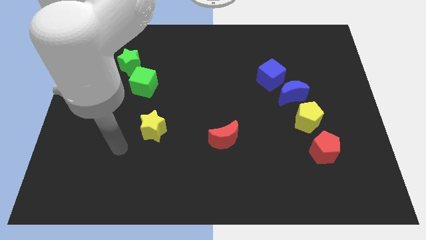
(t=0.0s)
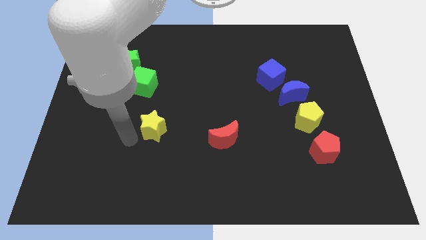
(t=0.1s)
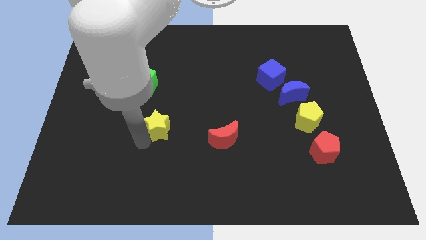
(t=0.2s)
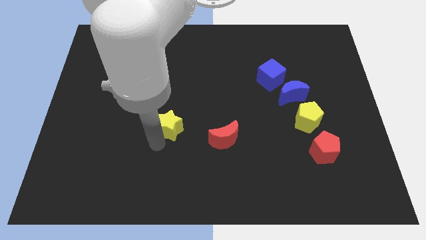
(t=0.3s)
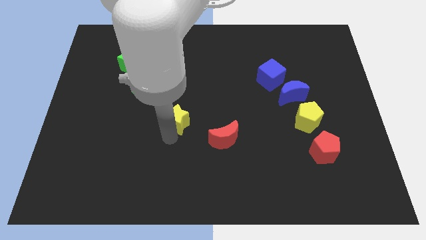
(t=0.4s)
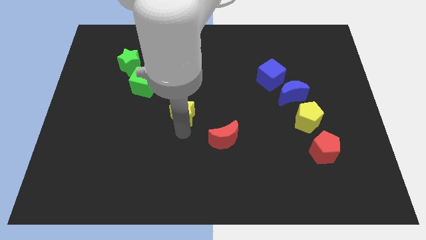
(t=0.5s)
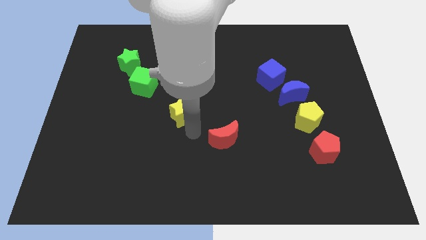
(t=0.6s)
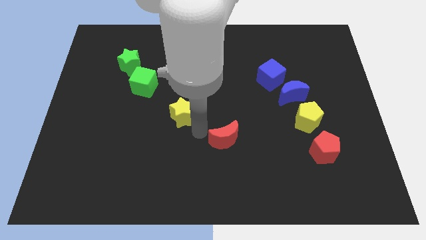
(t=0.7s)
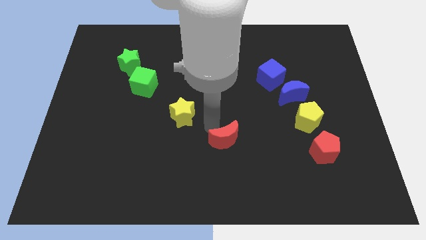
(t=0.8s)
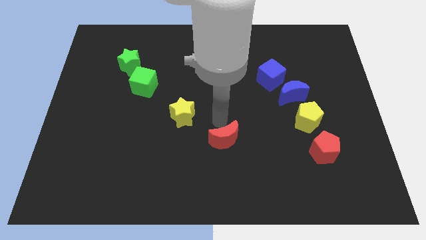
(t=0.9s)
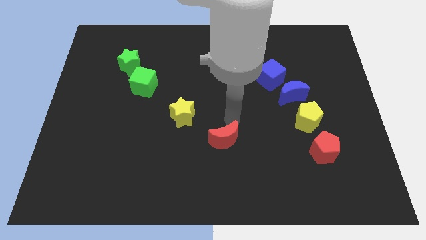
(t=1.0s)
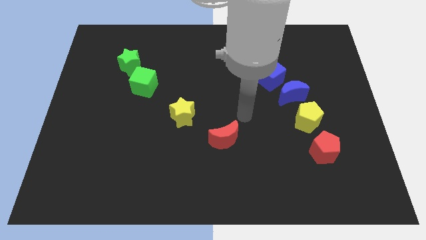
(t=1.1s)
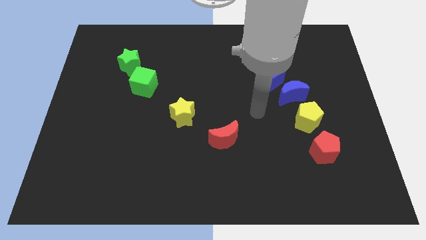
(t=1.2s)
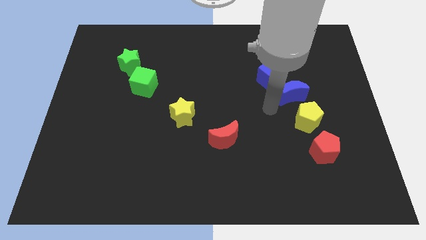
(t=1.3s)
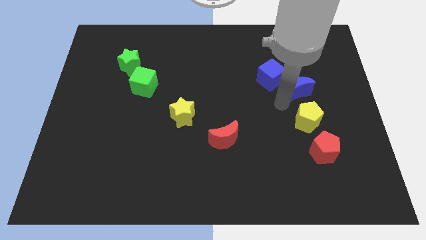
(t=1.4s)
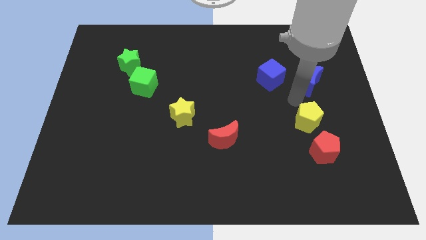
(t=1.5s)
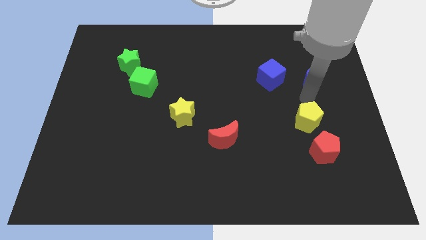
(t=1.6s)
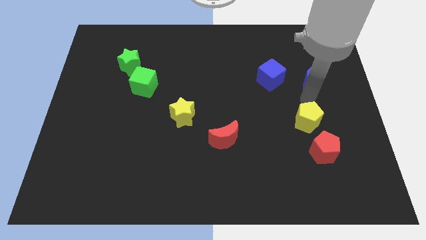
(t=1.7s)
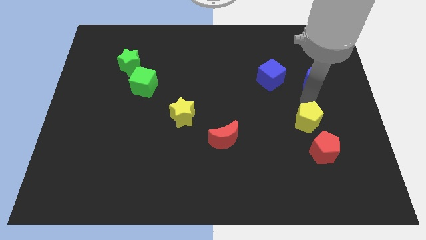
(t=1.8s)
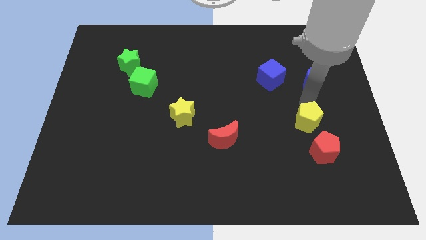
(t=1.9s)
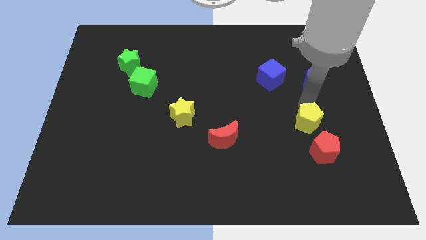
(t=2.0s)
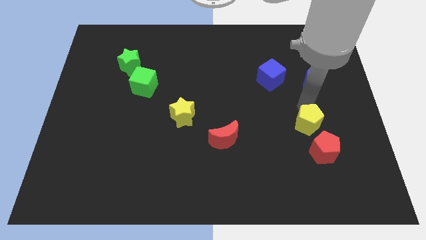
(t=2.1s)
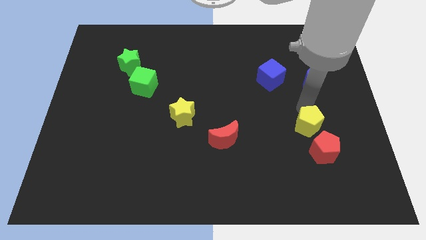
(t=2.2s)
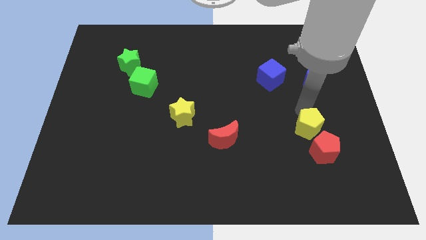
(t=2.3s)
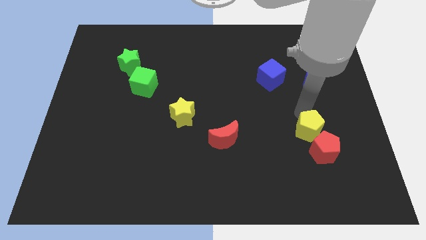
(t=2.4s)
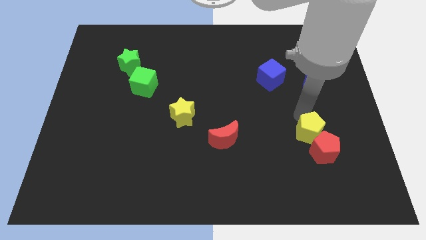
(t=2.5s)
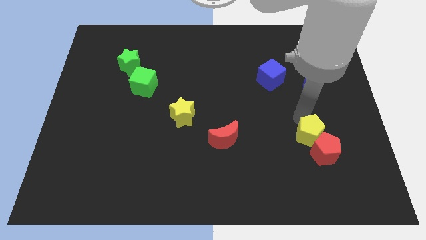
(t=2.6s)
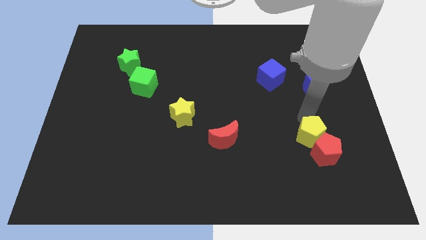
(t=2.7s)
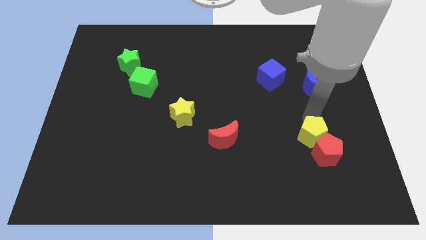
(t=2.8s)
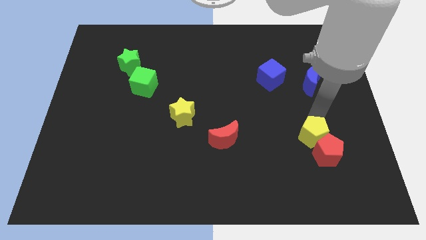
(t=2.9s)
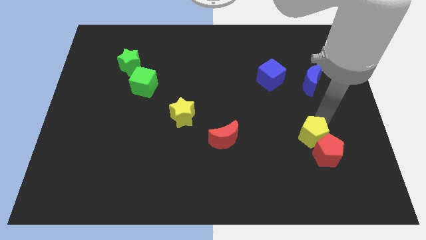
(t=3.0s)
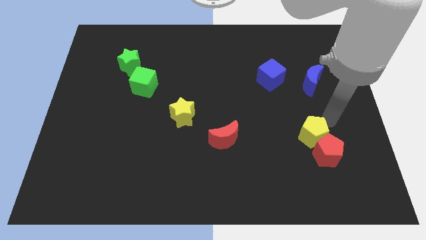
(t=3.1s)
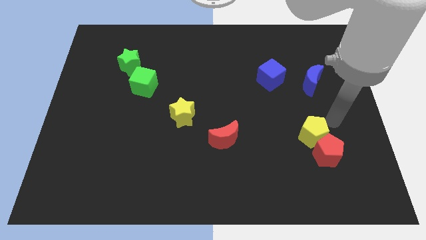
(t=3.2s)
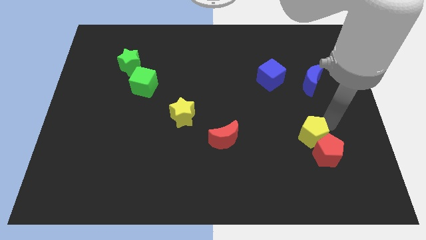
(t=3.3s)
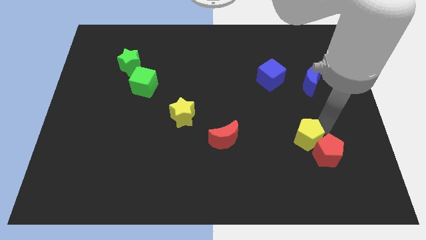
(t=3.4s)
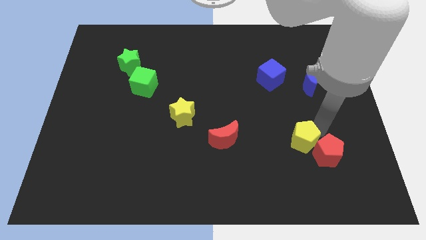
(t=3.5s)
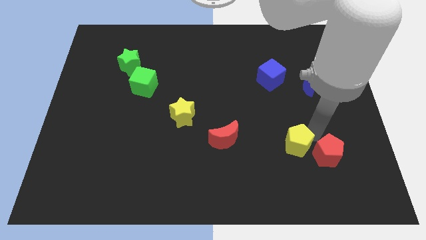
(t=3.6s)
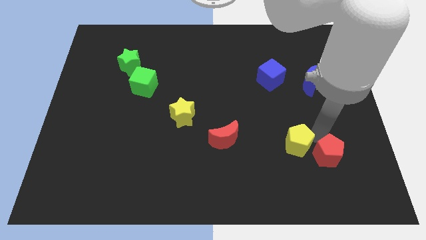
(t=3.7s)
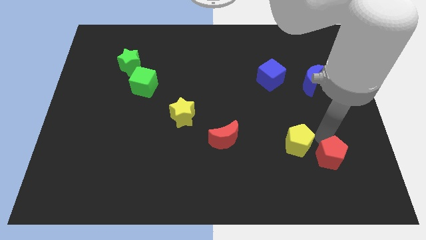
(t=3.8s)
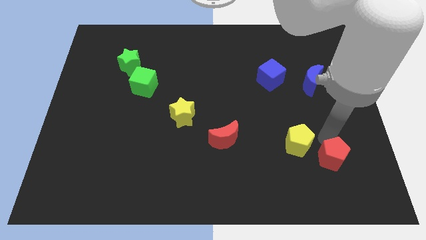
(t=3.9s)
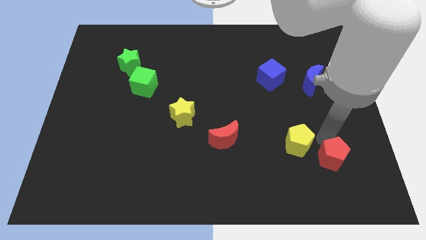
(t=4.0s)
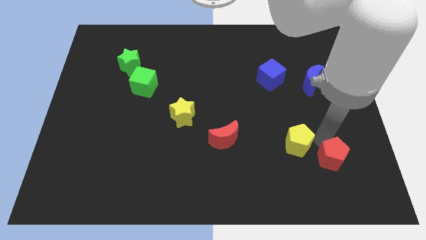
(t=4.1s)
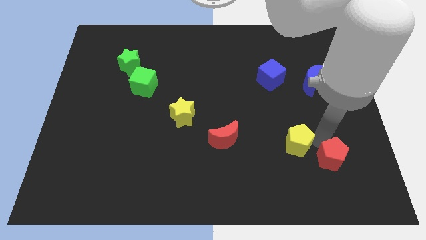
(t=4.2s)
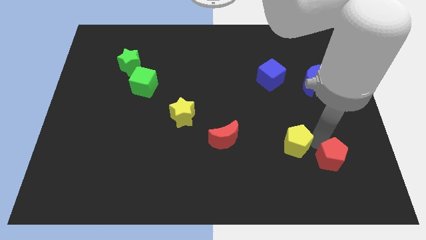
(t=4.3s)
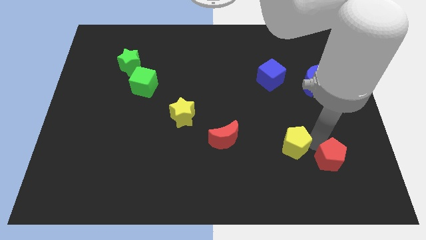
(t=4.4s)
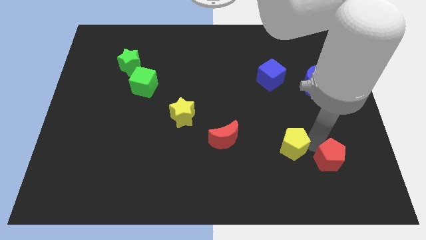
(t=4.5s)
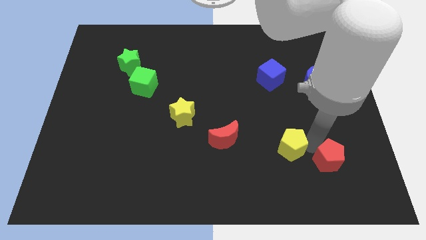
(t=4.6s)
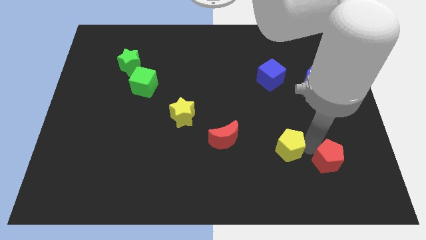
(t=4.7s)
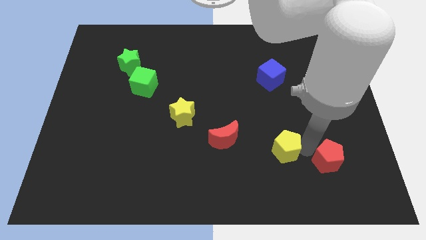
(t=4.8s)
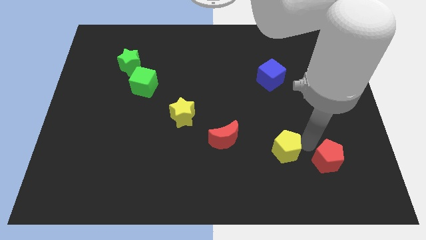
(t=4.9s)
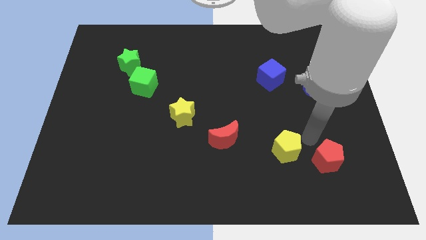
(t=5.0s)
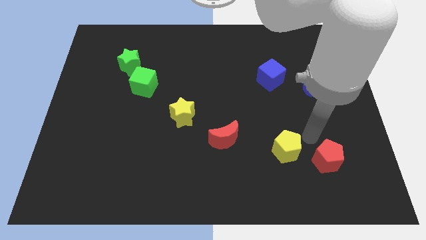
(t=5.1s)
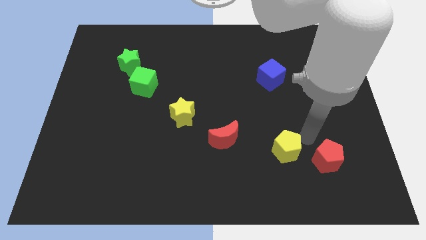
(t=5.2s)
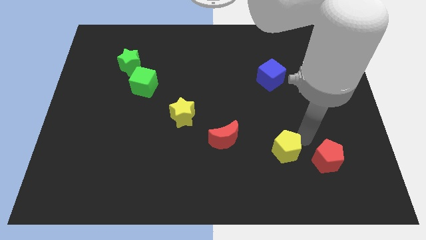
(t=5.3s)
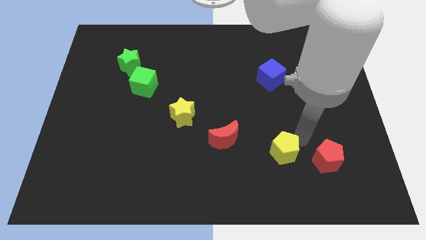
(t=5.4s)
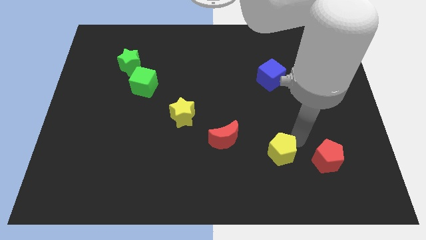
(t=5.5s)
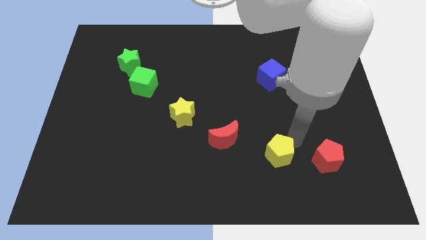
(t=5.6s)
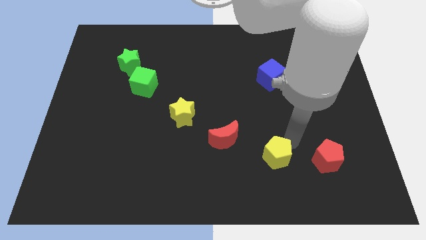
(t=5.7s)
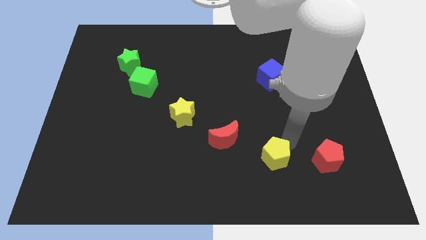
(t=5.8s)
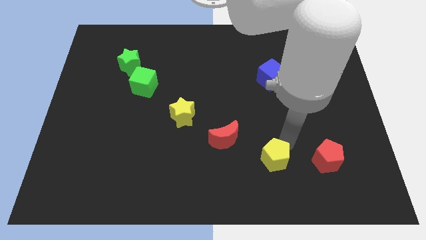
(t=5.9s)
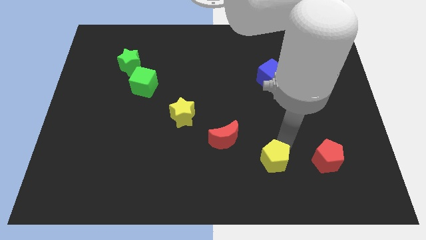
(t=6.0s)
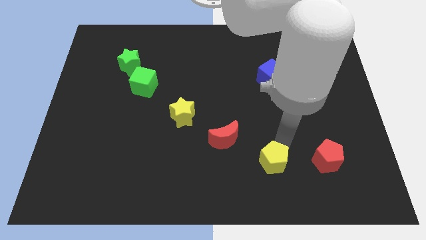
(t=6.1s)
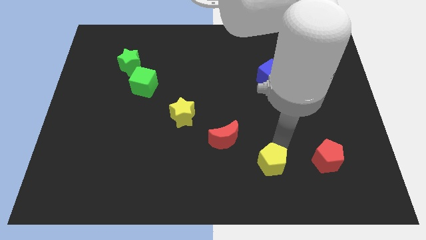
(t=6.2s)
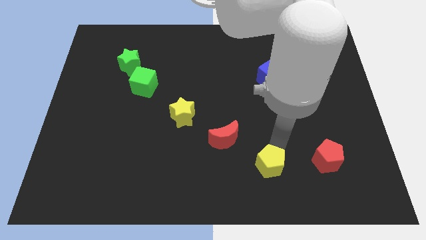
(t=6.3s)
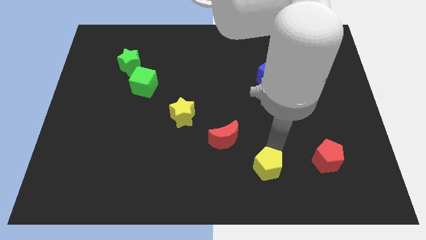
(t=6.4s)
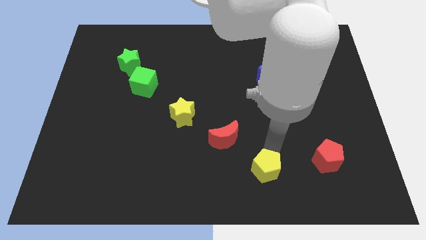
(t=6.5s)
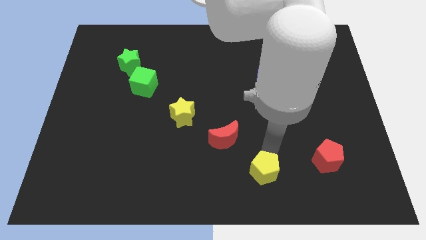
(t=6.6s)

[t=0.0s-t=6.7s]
slide the yellow pentagon to the bottom side
